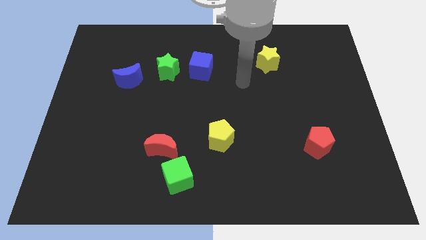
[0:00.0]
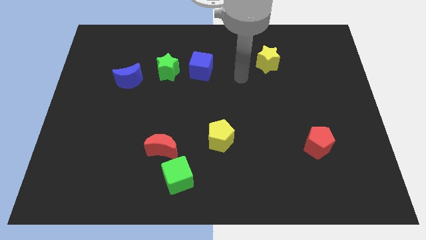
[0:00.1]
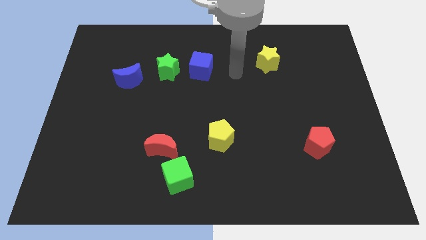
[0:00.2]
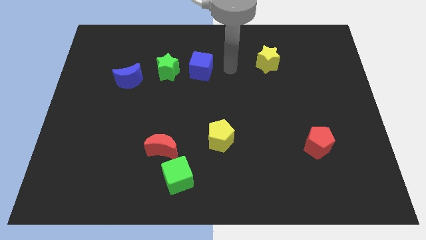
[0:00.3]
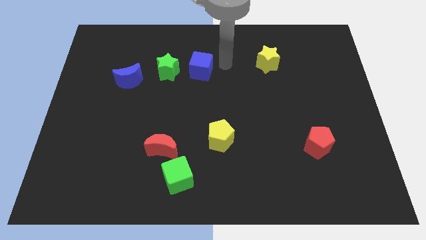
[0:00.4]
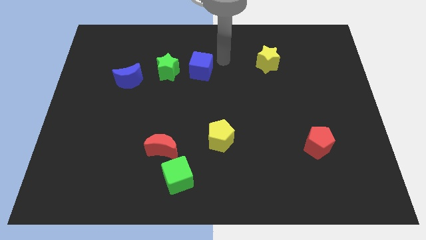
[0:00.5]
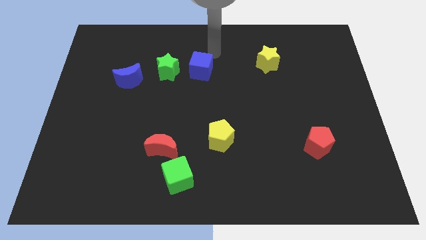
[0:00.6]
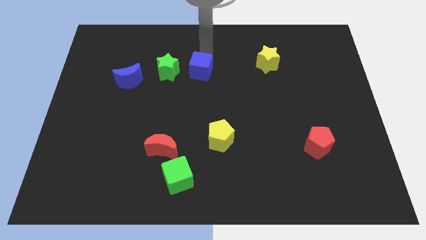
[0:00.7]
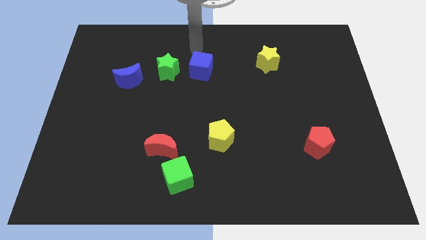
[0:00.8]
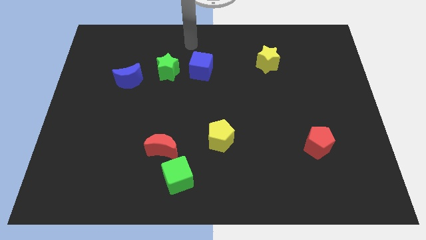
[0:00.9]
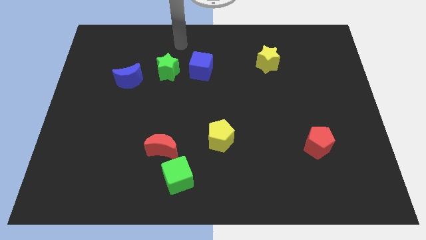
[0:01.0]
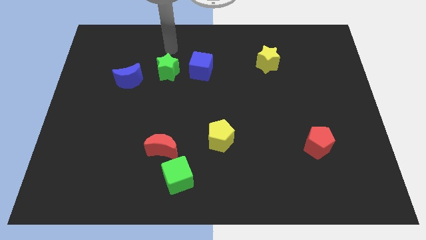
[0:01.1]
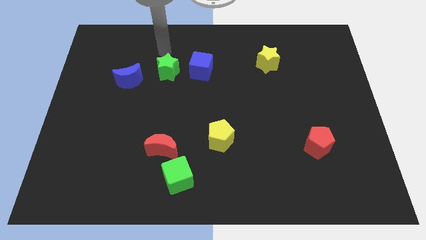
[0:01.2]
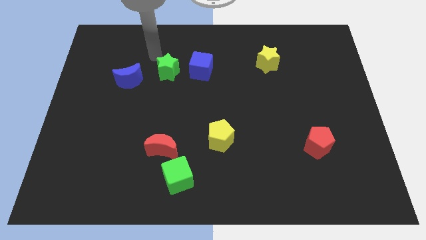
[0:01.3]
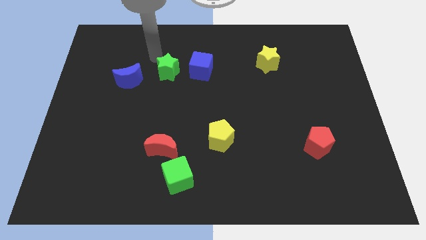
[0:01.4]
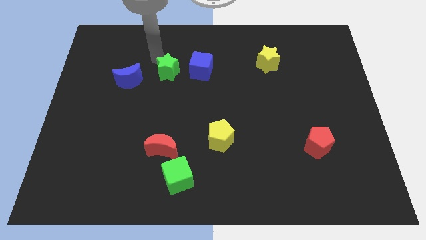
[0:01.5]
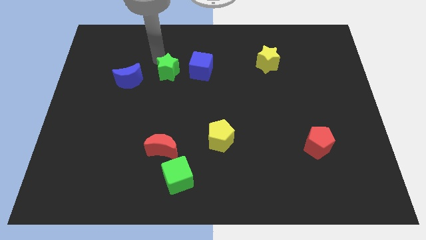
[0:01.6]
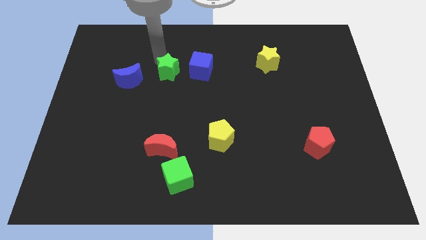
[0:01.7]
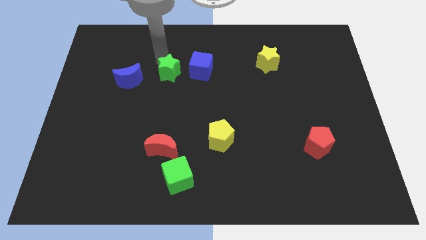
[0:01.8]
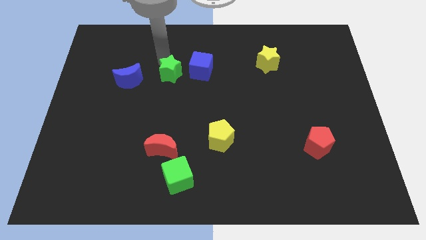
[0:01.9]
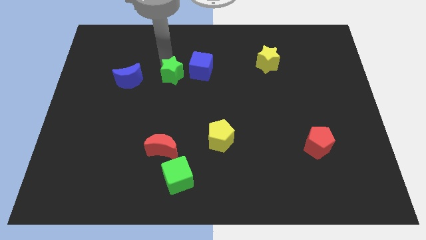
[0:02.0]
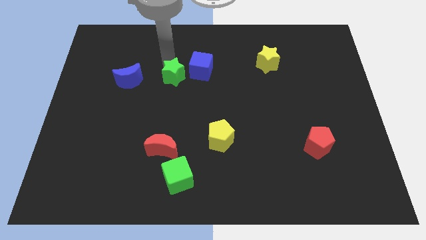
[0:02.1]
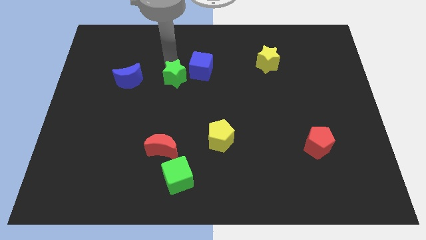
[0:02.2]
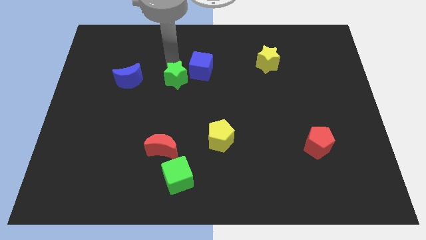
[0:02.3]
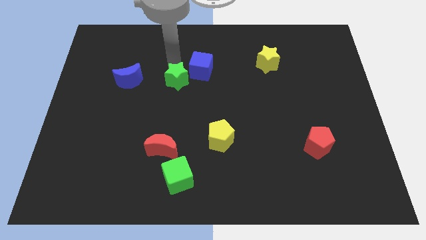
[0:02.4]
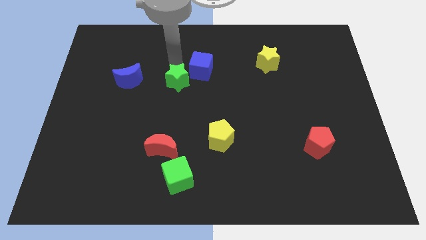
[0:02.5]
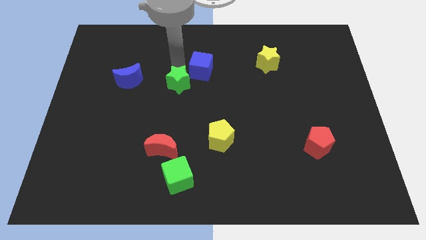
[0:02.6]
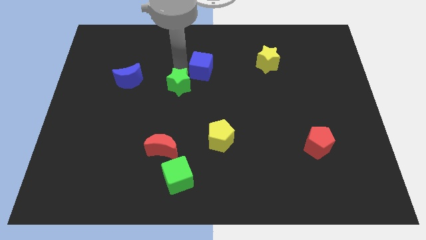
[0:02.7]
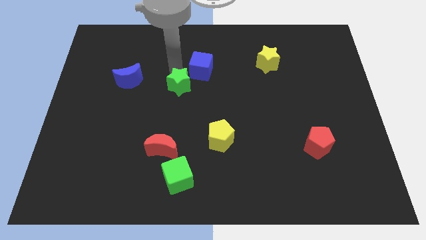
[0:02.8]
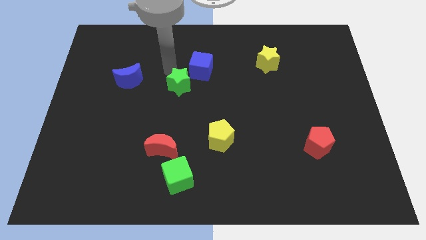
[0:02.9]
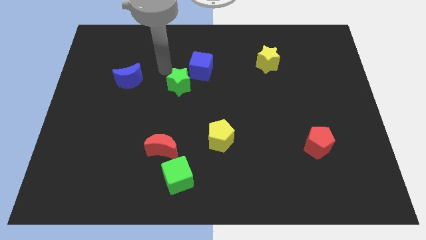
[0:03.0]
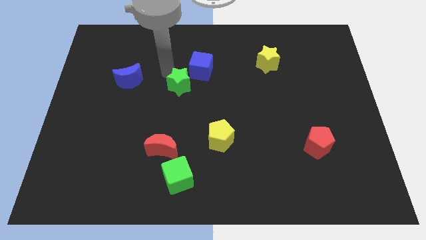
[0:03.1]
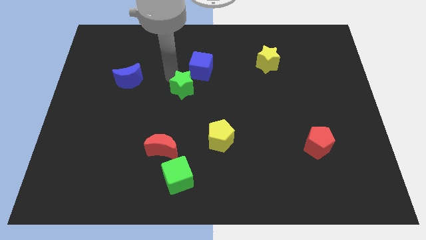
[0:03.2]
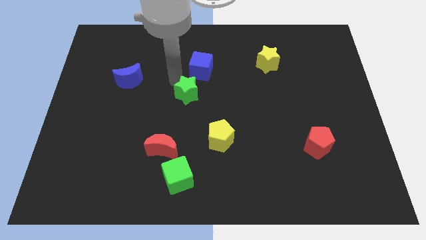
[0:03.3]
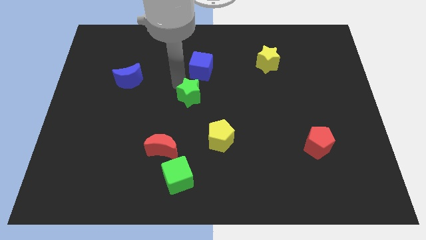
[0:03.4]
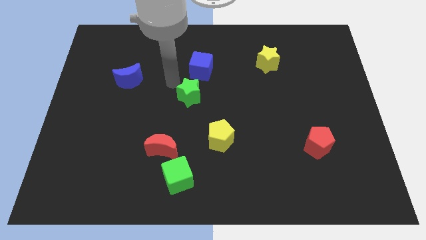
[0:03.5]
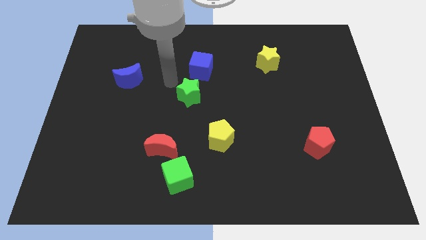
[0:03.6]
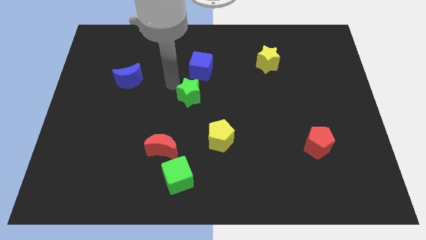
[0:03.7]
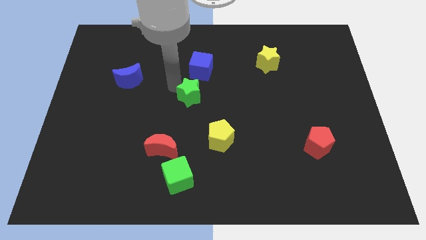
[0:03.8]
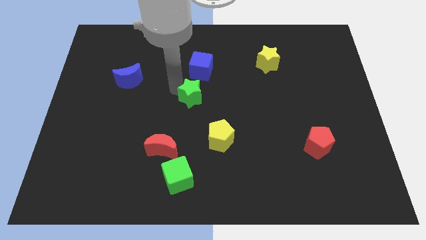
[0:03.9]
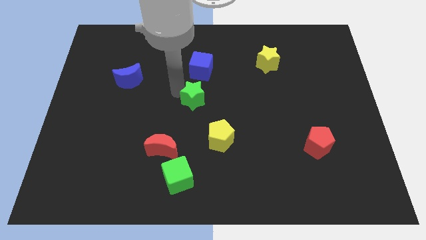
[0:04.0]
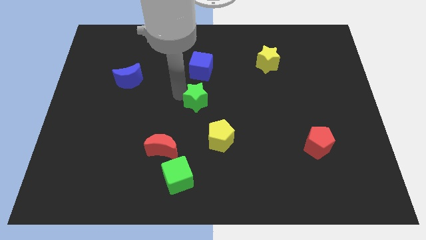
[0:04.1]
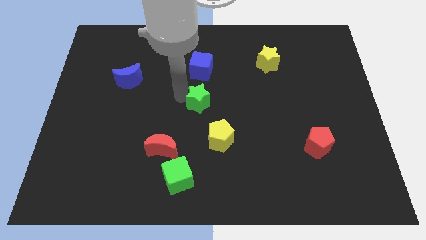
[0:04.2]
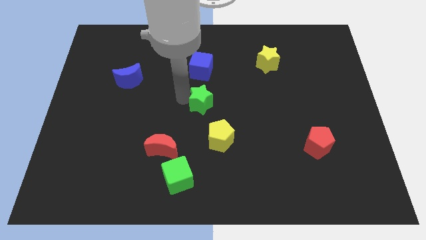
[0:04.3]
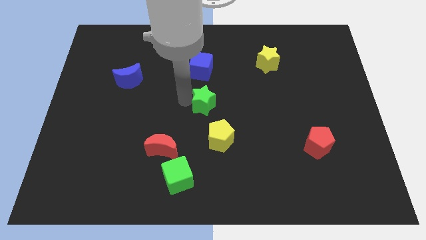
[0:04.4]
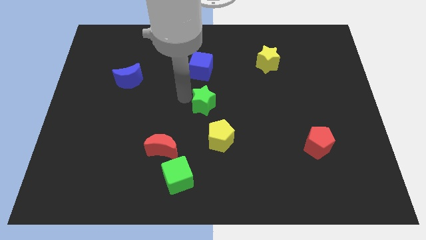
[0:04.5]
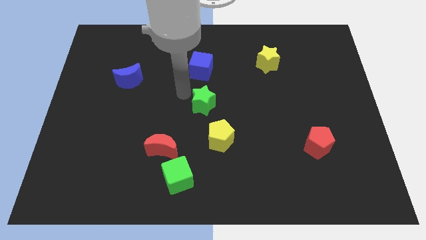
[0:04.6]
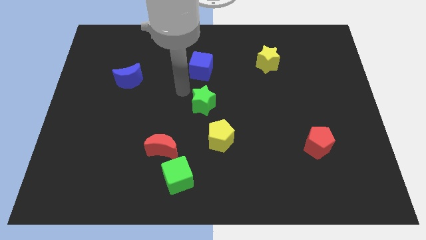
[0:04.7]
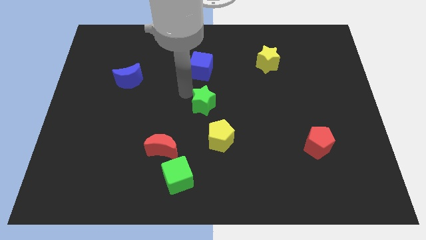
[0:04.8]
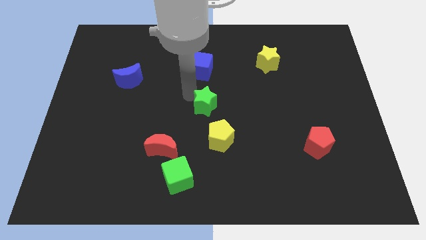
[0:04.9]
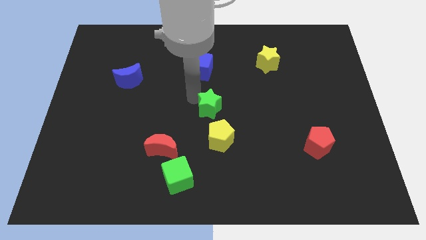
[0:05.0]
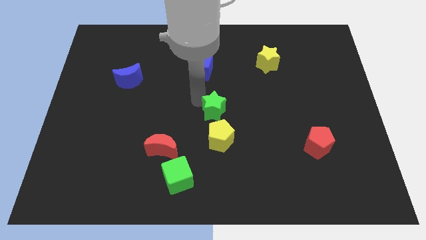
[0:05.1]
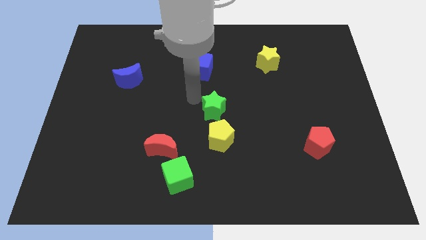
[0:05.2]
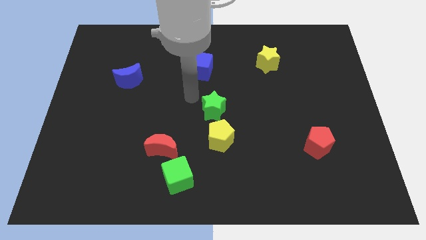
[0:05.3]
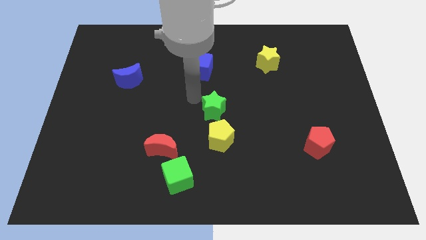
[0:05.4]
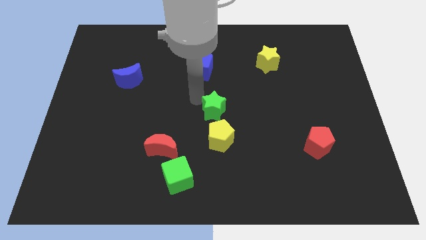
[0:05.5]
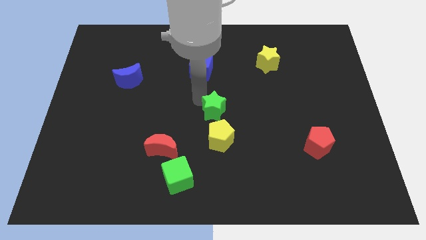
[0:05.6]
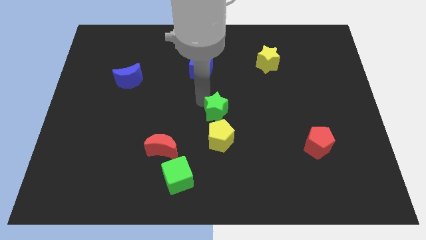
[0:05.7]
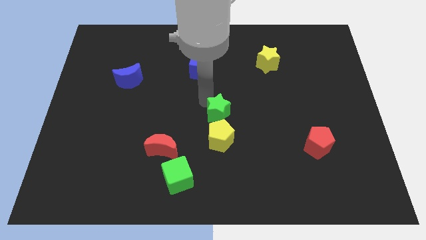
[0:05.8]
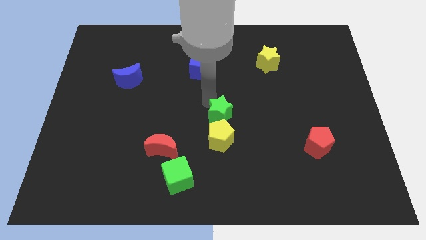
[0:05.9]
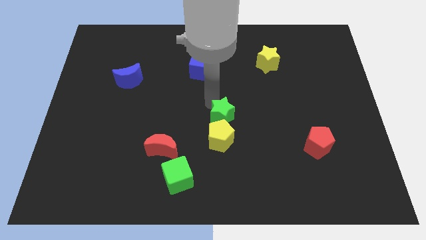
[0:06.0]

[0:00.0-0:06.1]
move the green star downwards and to the right diagonally

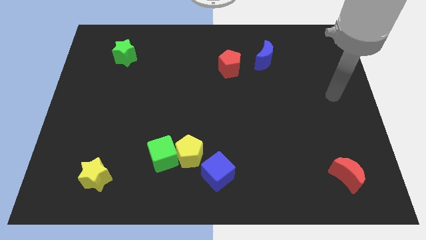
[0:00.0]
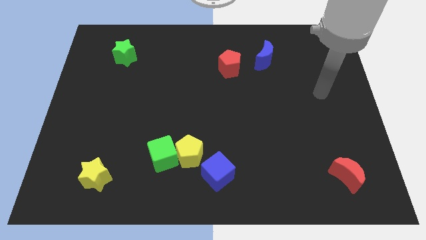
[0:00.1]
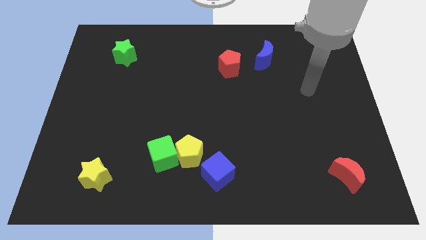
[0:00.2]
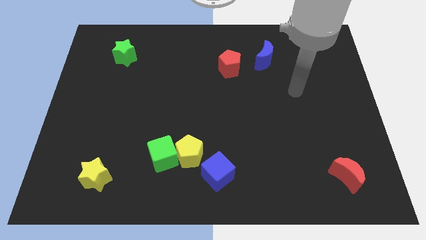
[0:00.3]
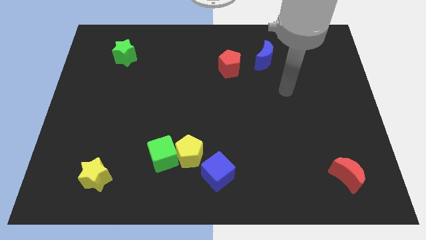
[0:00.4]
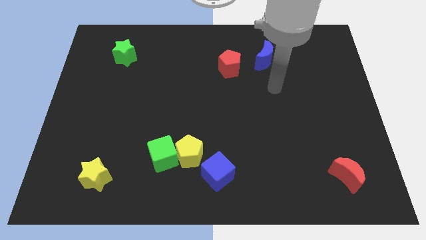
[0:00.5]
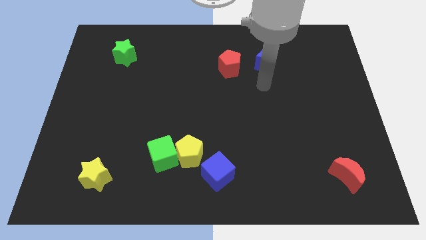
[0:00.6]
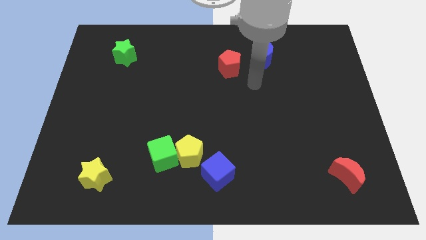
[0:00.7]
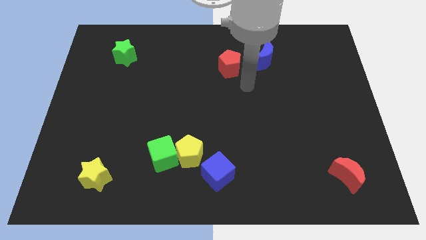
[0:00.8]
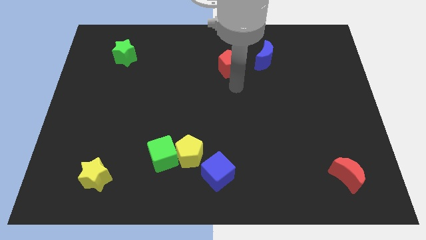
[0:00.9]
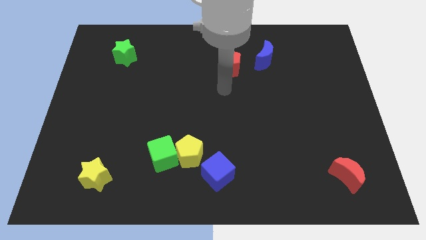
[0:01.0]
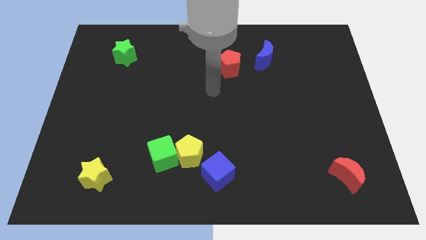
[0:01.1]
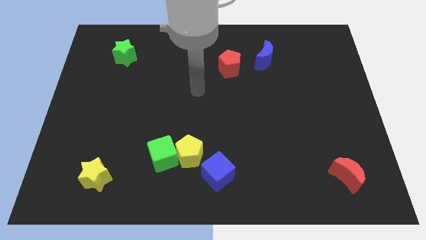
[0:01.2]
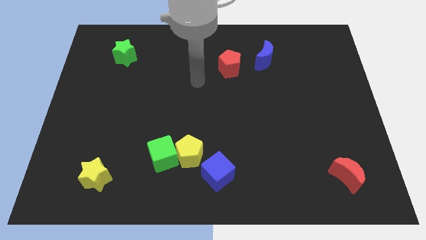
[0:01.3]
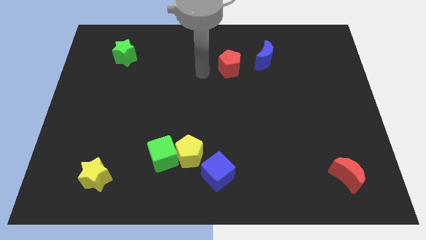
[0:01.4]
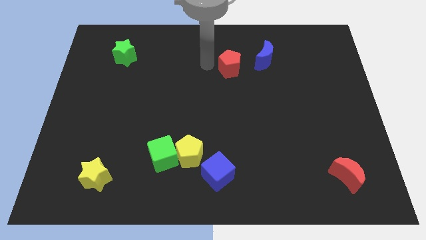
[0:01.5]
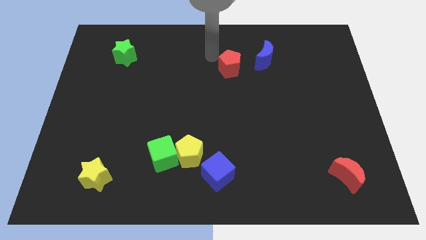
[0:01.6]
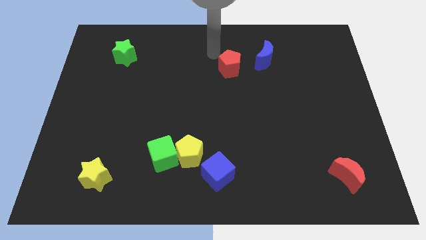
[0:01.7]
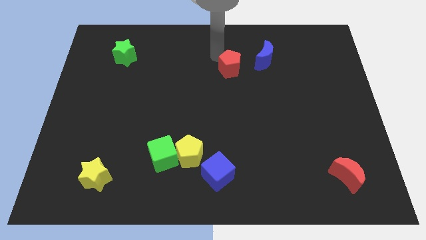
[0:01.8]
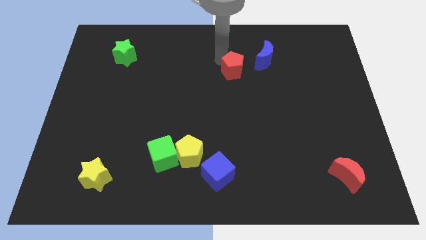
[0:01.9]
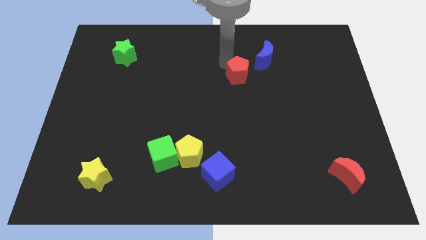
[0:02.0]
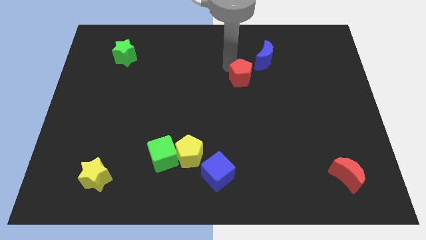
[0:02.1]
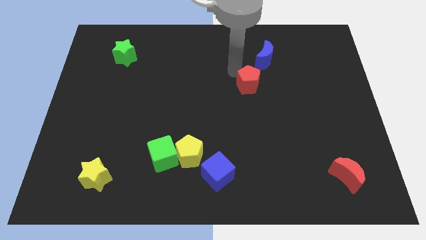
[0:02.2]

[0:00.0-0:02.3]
slightly push the red pentagon diagonally downwards and right
